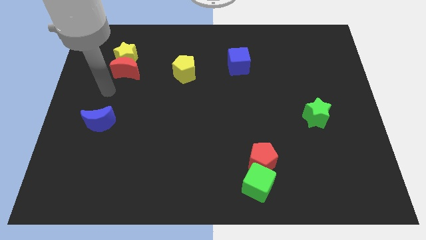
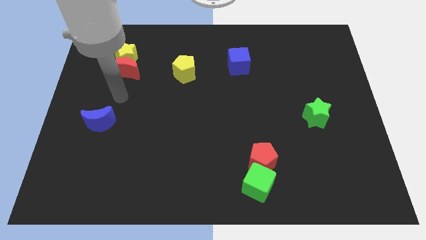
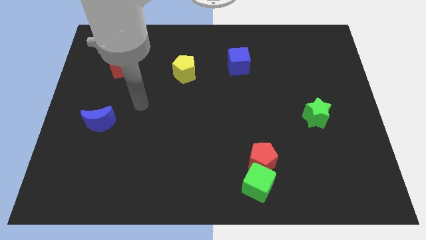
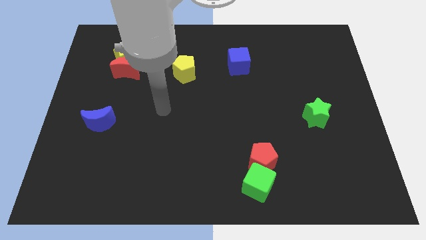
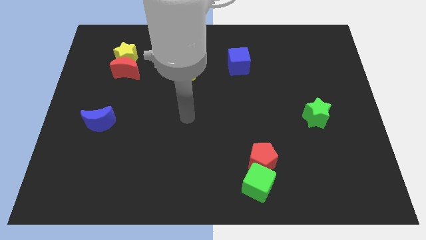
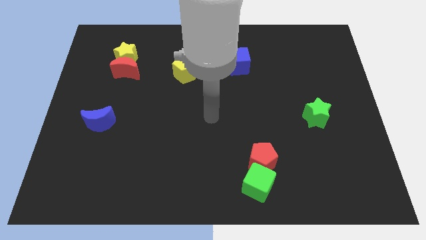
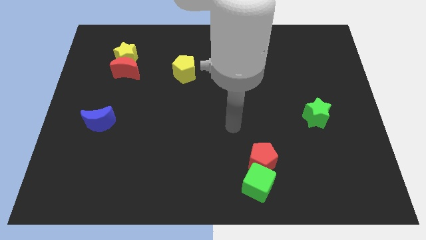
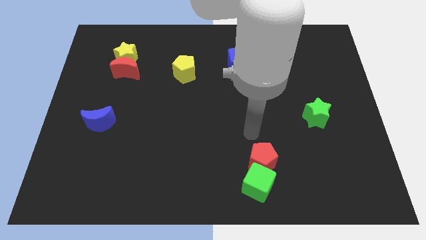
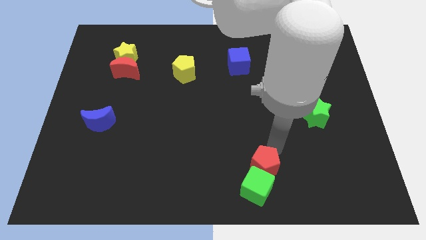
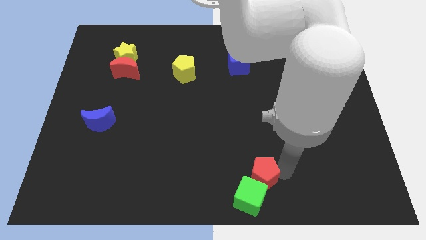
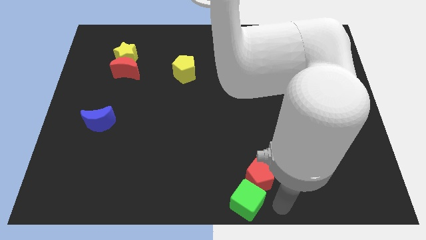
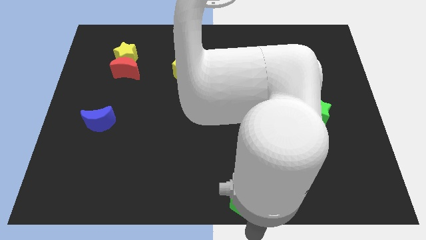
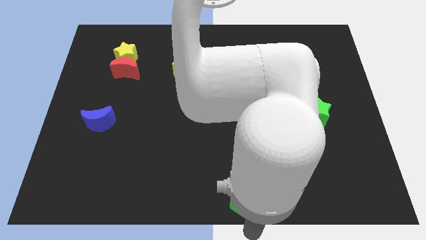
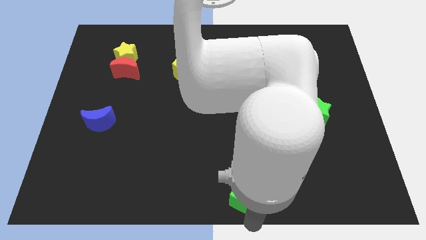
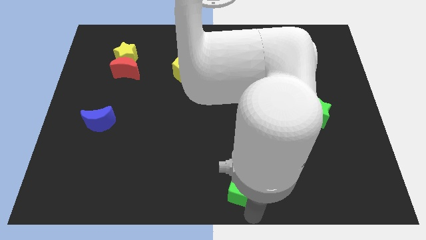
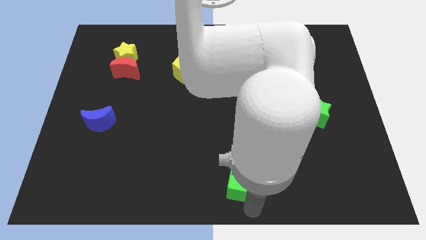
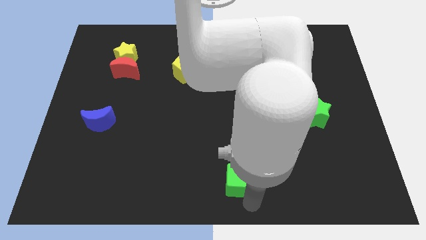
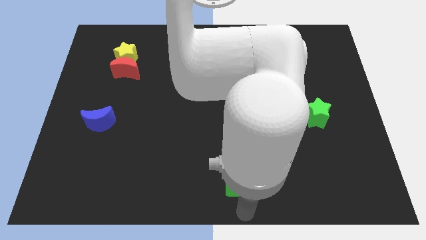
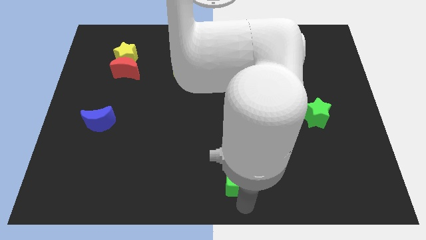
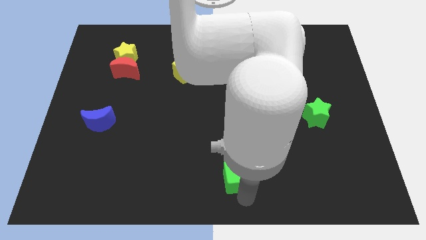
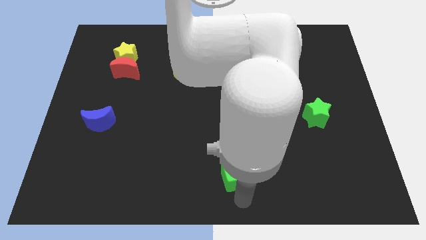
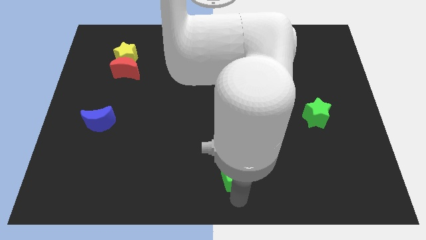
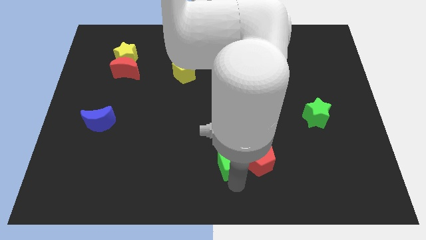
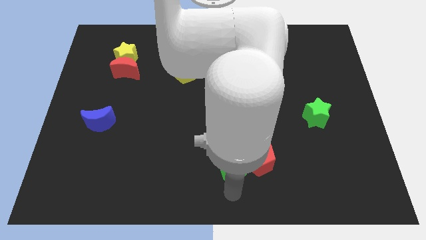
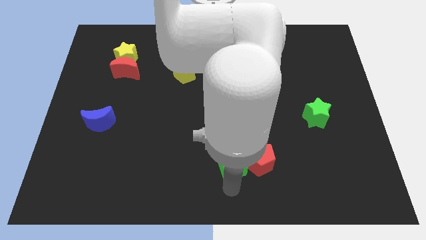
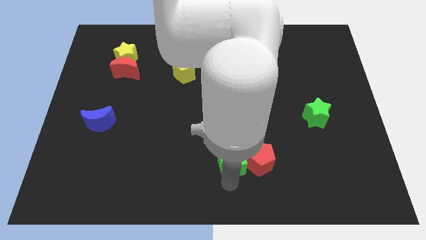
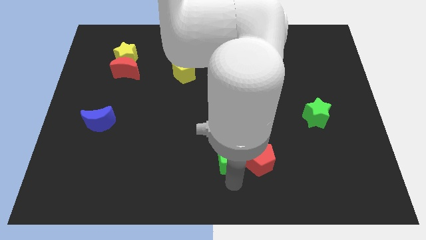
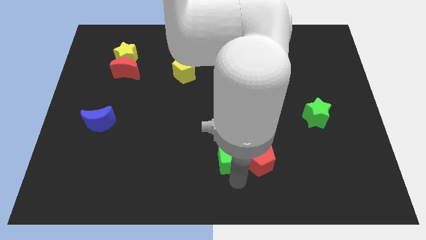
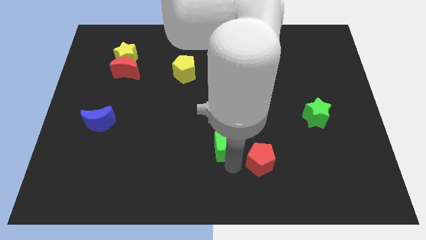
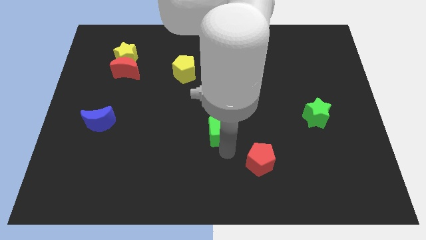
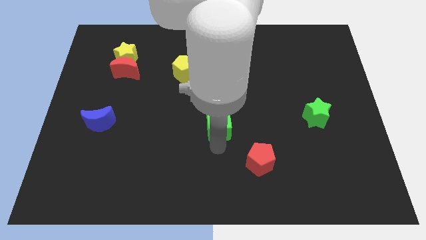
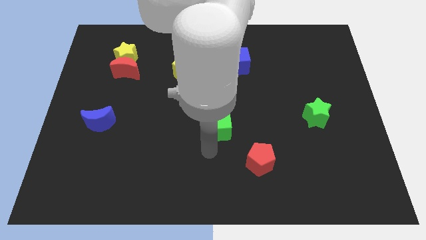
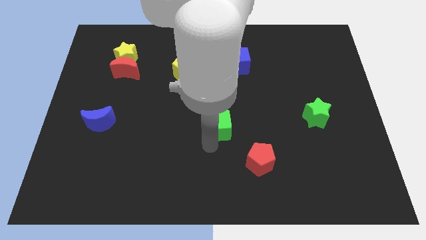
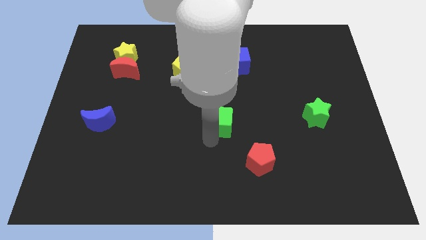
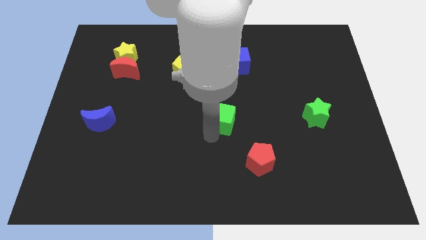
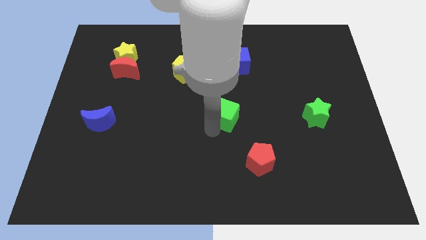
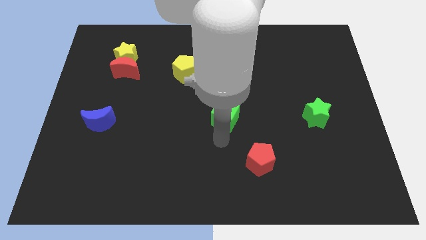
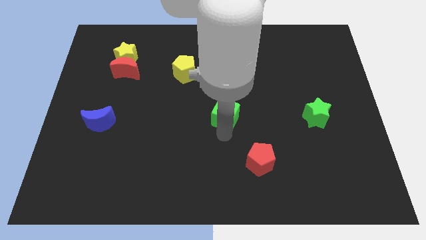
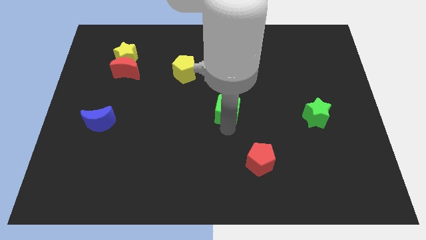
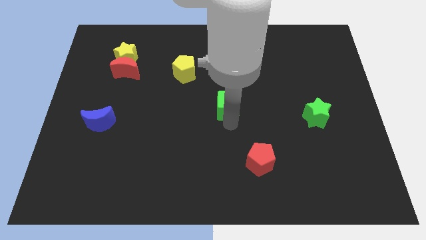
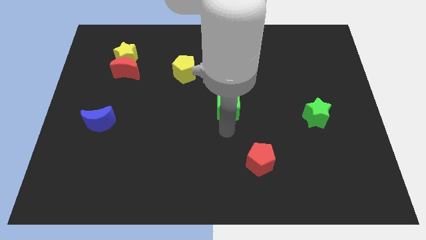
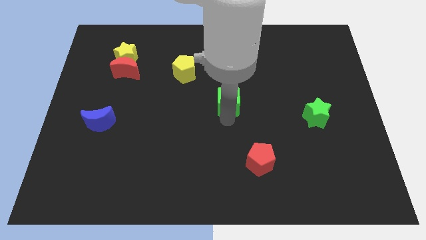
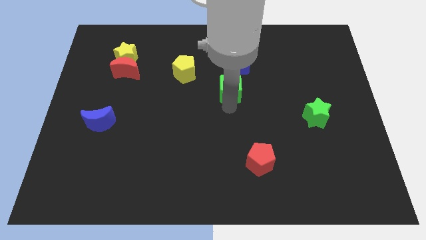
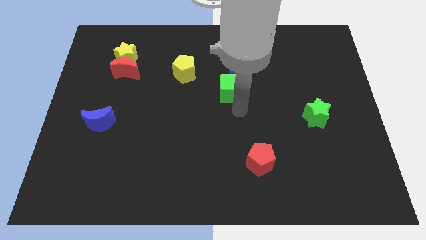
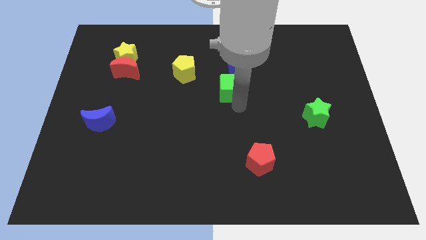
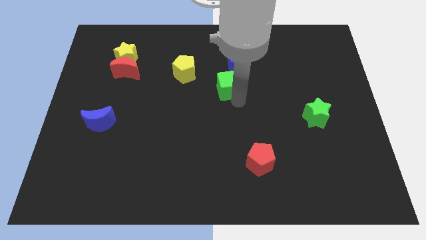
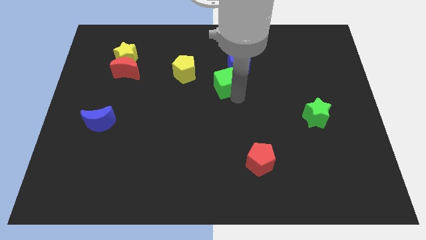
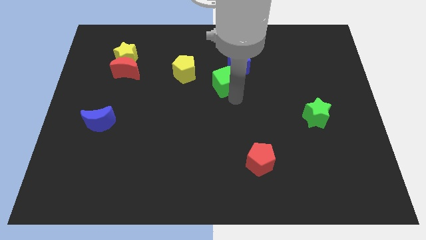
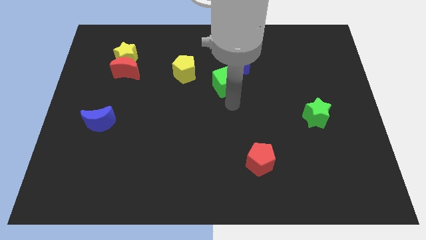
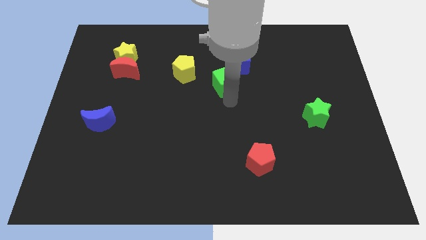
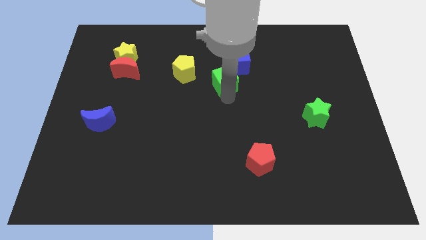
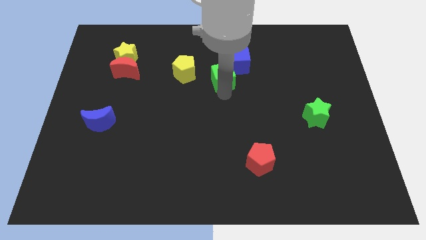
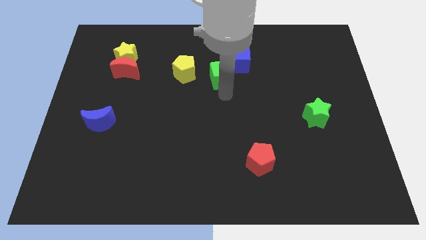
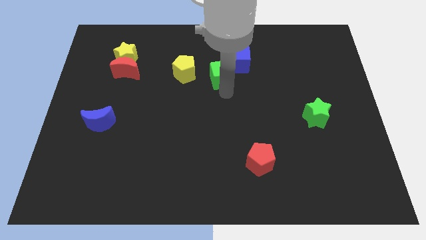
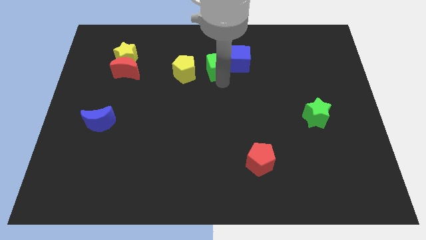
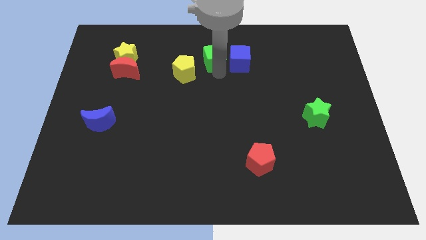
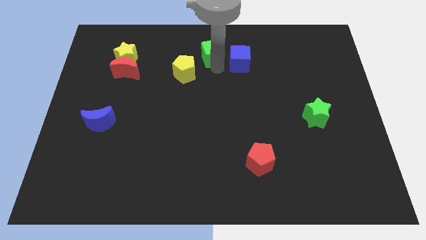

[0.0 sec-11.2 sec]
push the green cube to the top side
